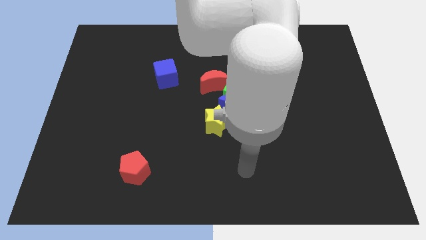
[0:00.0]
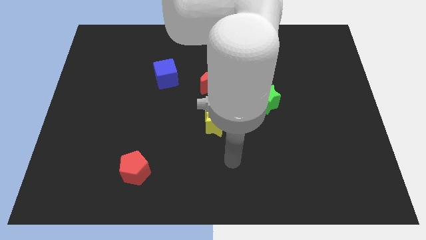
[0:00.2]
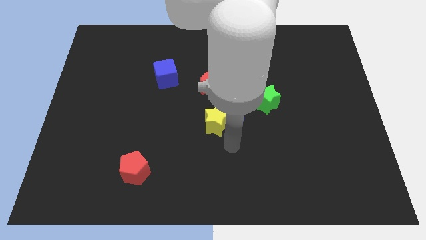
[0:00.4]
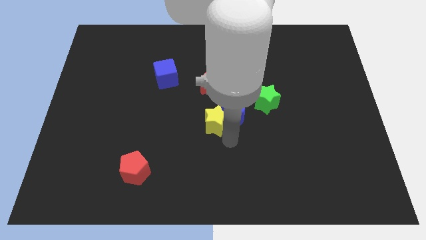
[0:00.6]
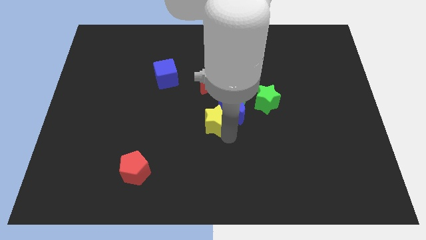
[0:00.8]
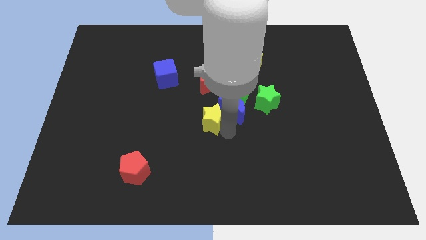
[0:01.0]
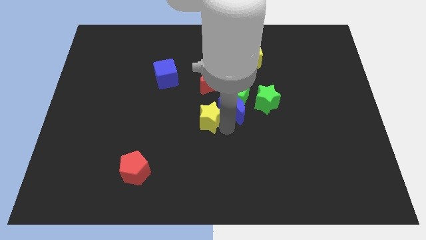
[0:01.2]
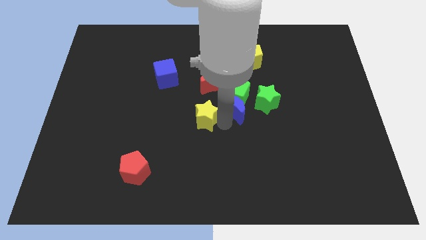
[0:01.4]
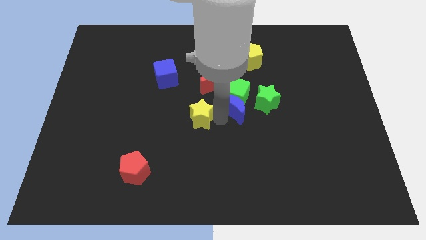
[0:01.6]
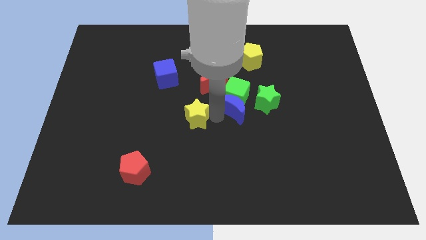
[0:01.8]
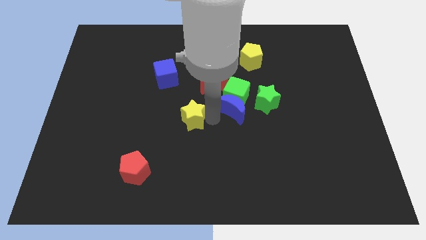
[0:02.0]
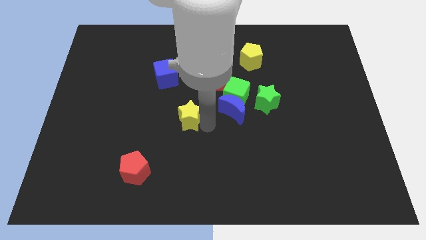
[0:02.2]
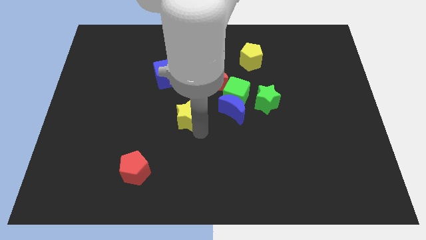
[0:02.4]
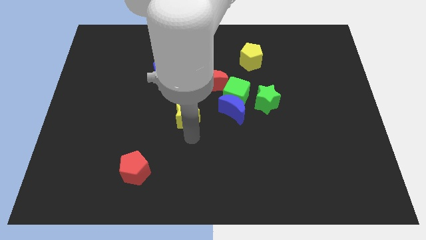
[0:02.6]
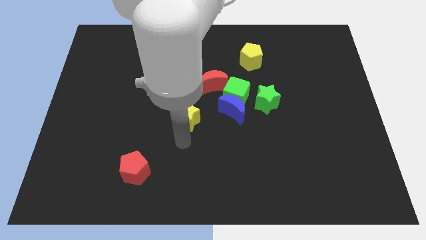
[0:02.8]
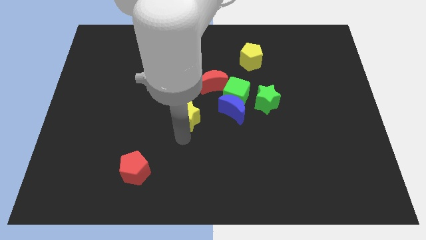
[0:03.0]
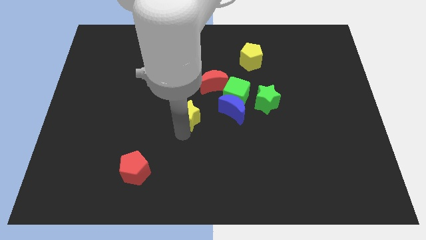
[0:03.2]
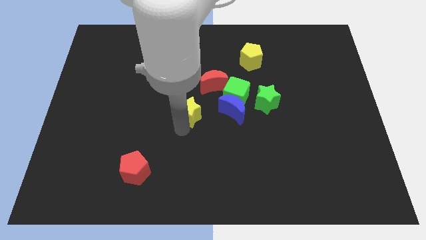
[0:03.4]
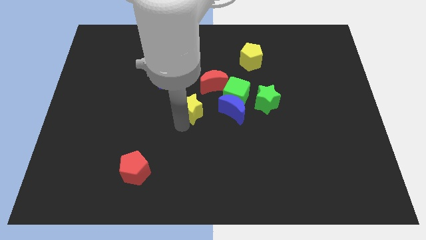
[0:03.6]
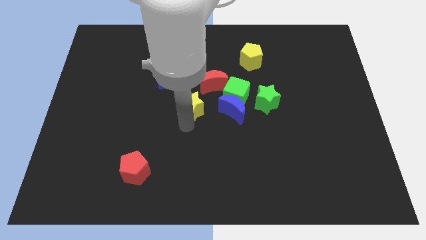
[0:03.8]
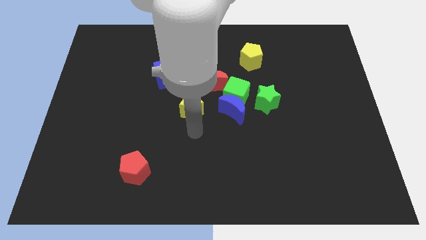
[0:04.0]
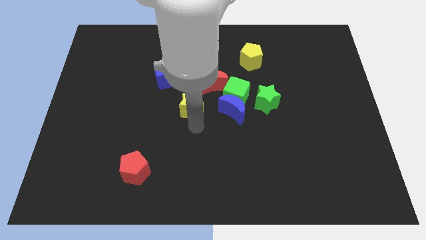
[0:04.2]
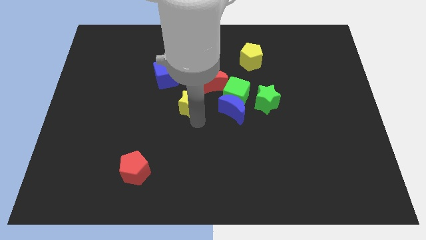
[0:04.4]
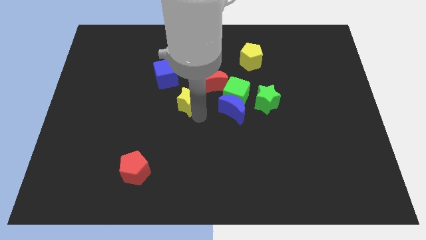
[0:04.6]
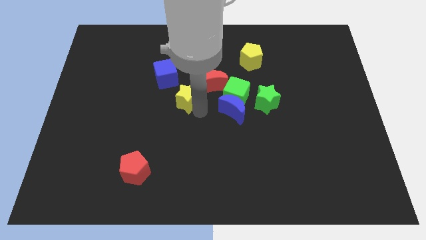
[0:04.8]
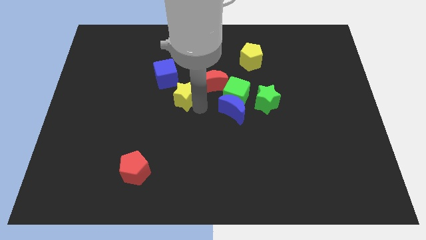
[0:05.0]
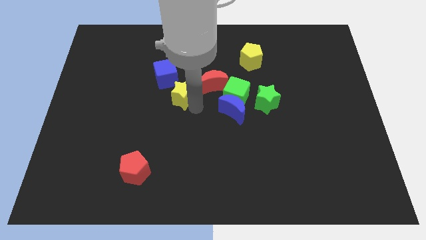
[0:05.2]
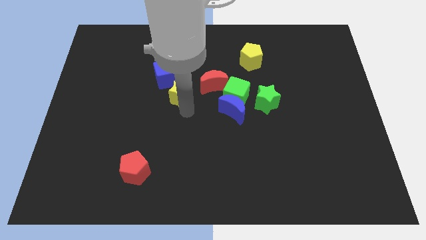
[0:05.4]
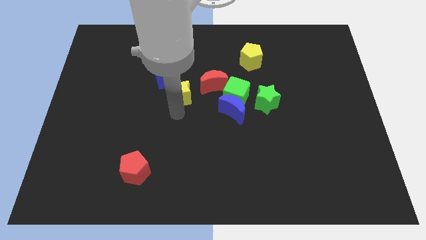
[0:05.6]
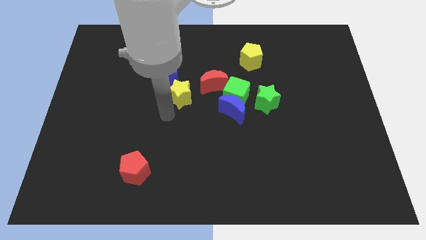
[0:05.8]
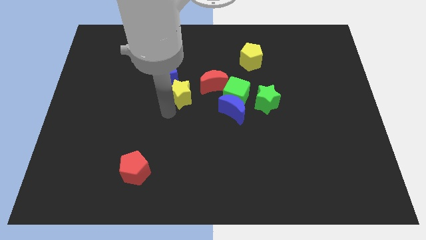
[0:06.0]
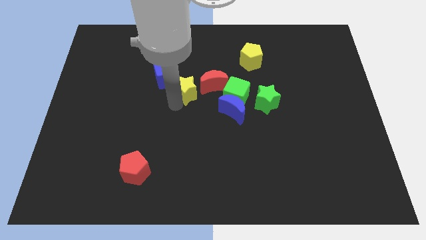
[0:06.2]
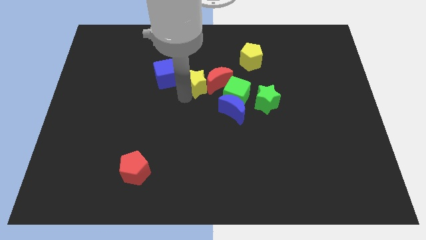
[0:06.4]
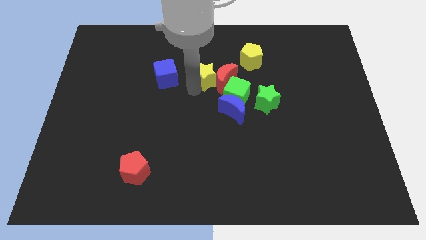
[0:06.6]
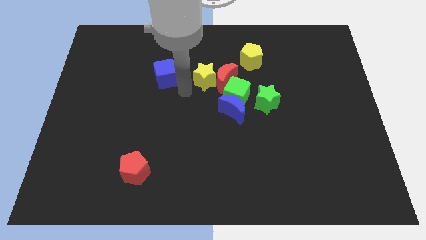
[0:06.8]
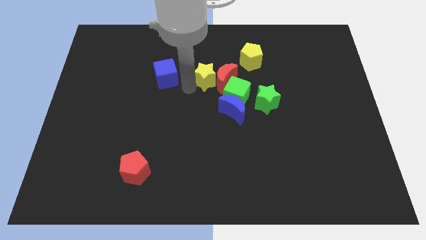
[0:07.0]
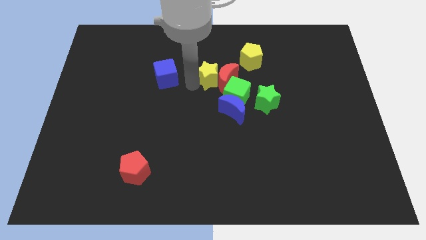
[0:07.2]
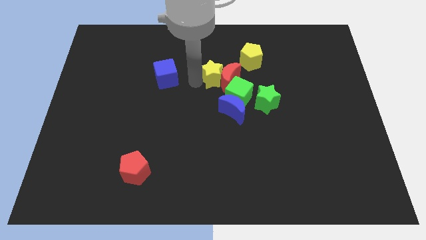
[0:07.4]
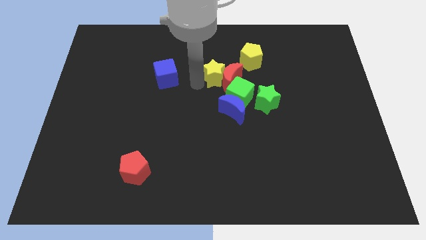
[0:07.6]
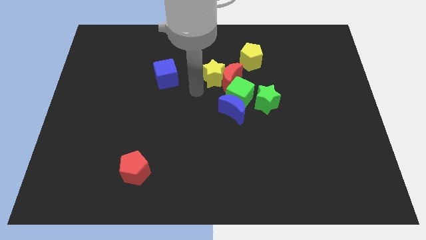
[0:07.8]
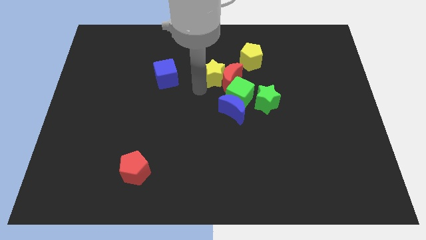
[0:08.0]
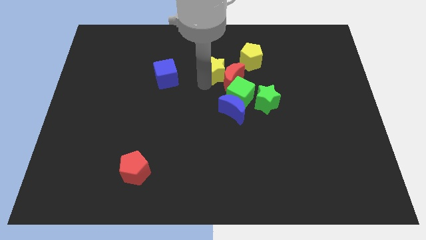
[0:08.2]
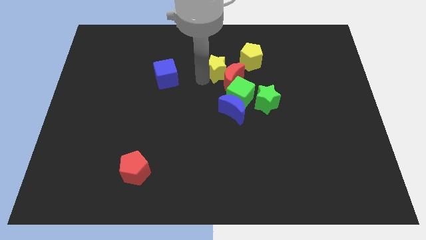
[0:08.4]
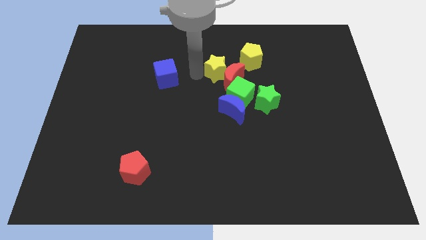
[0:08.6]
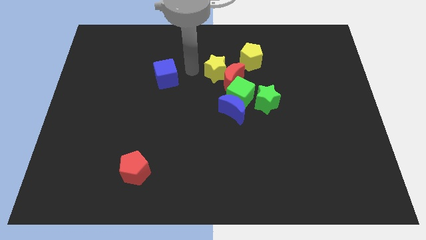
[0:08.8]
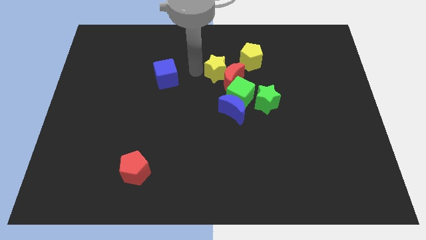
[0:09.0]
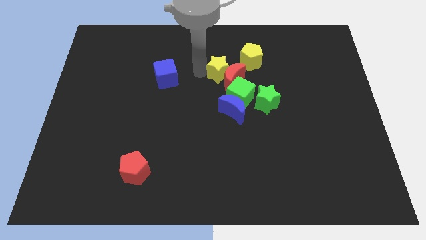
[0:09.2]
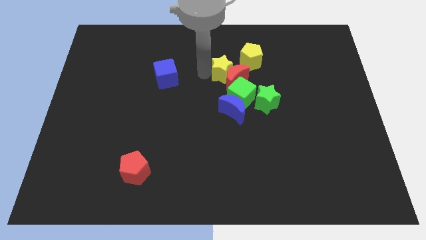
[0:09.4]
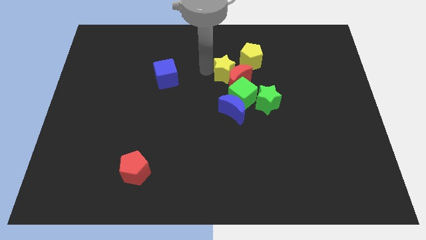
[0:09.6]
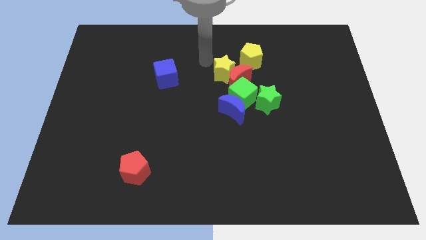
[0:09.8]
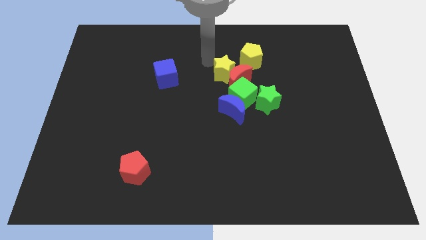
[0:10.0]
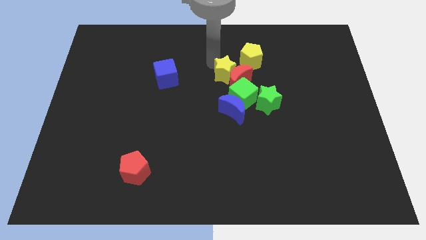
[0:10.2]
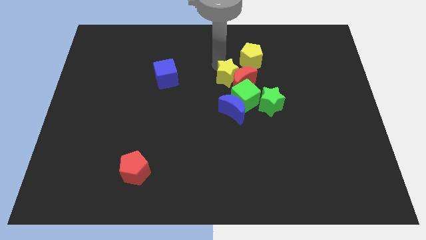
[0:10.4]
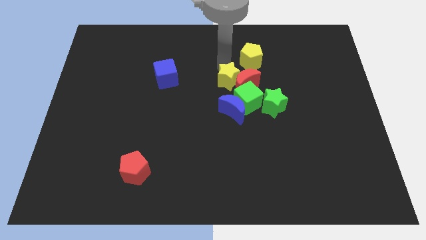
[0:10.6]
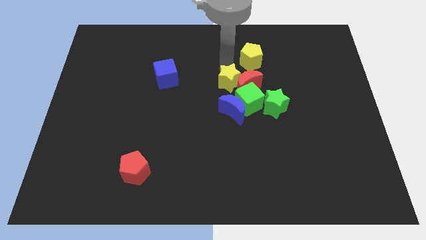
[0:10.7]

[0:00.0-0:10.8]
put the yellow star to the top left side of the green star

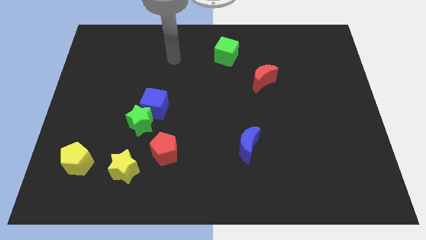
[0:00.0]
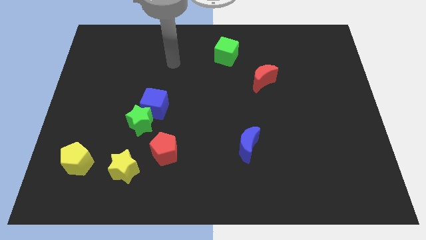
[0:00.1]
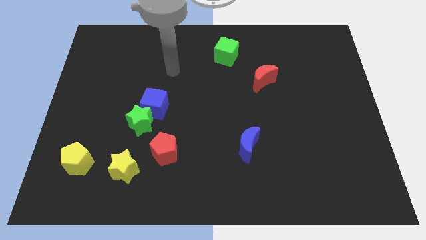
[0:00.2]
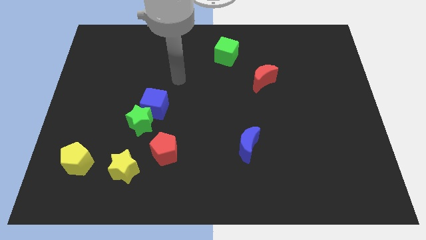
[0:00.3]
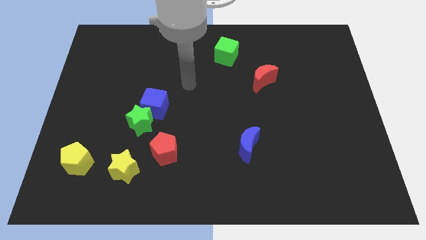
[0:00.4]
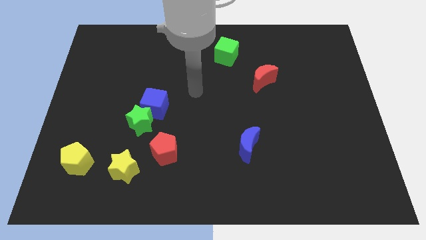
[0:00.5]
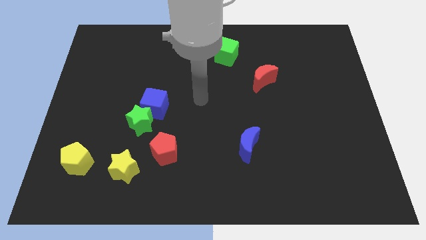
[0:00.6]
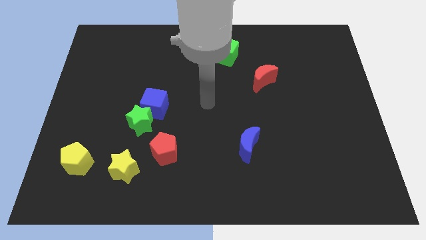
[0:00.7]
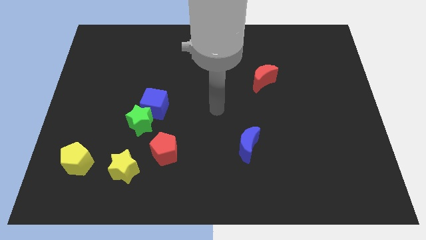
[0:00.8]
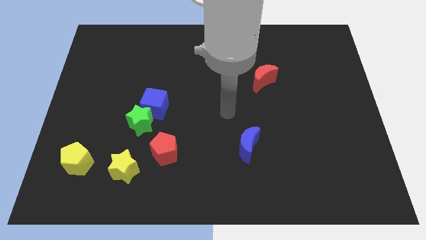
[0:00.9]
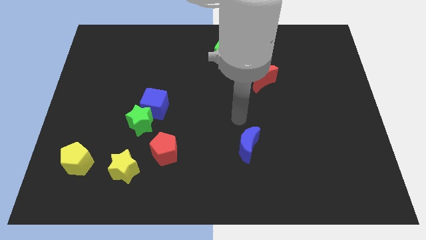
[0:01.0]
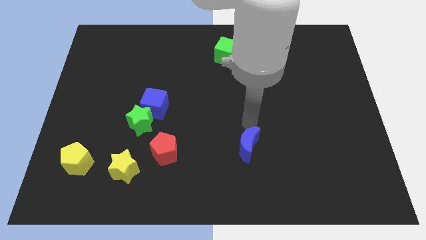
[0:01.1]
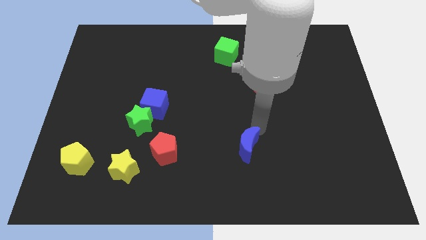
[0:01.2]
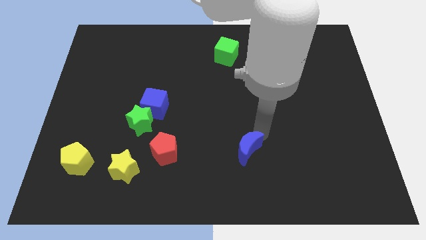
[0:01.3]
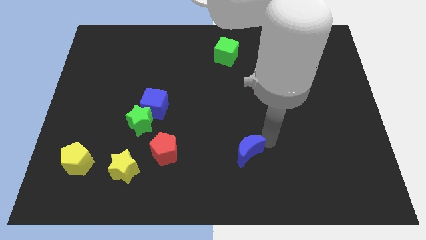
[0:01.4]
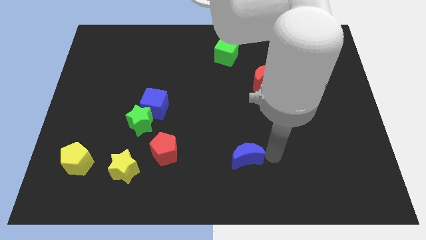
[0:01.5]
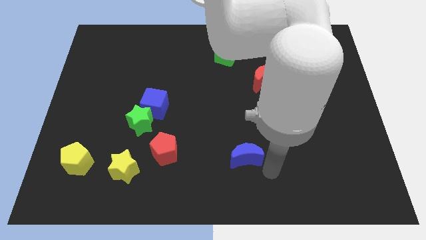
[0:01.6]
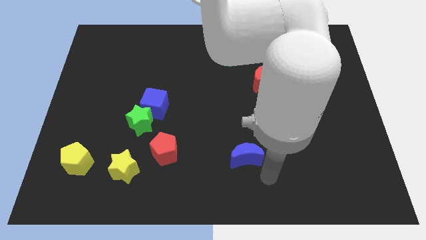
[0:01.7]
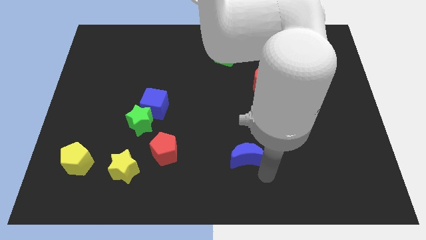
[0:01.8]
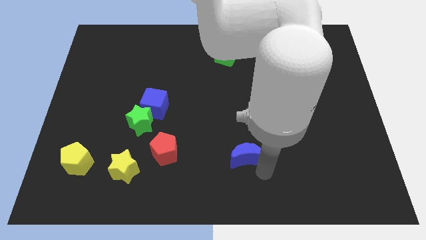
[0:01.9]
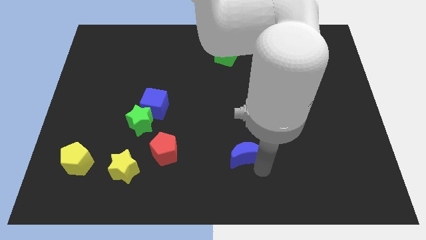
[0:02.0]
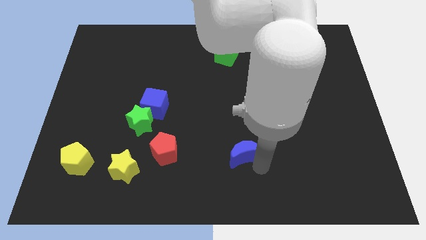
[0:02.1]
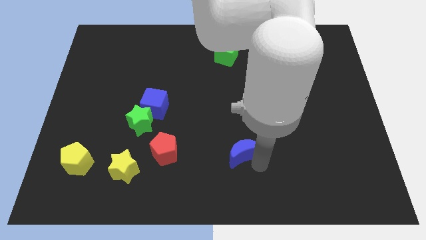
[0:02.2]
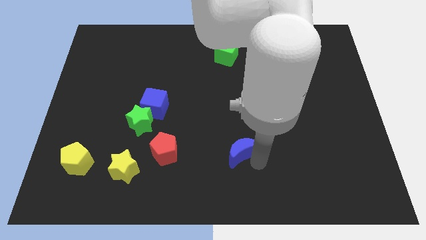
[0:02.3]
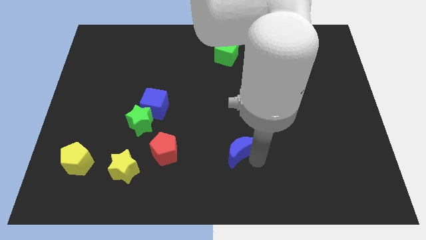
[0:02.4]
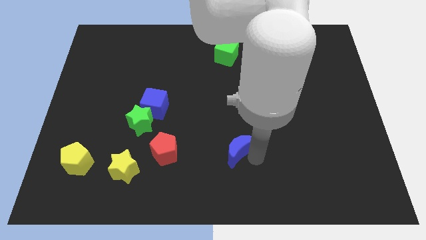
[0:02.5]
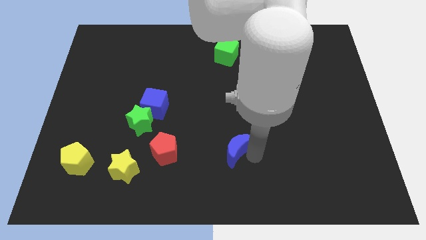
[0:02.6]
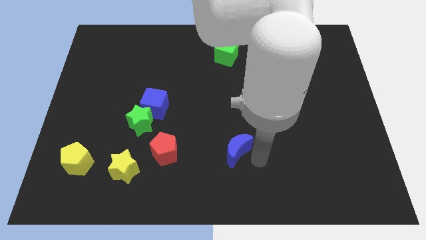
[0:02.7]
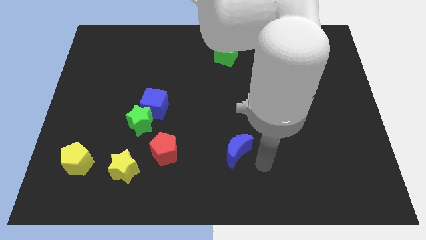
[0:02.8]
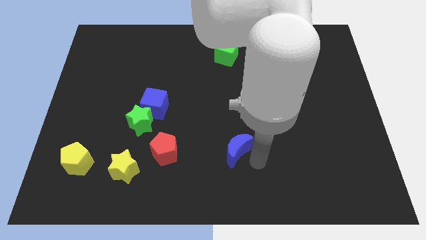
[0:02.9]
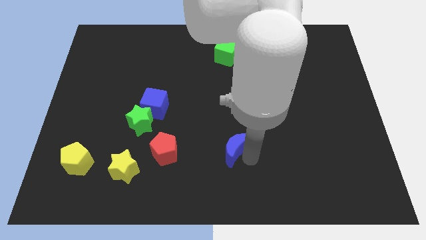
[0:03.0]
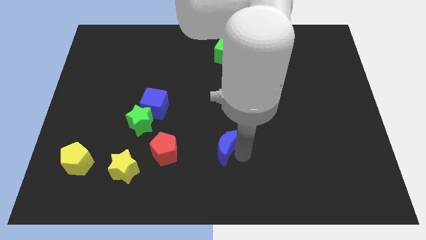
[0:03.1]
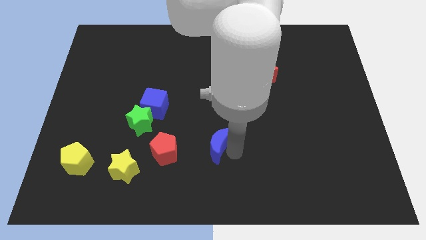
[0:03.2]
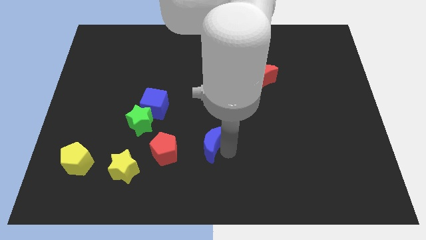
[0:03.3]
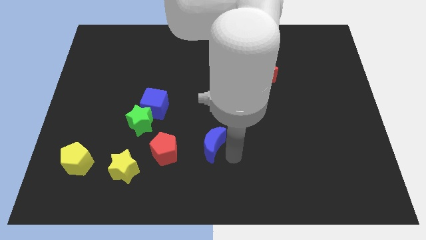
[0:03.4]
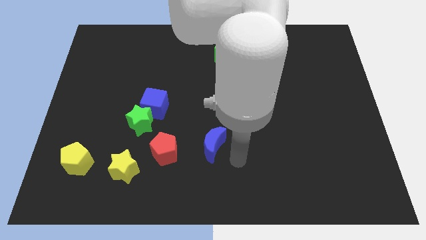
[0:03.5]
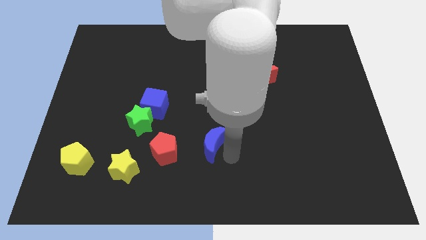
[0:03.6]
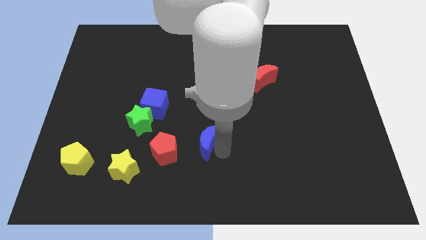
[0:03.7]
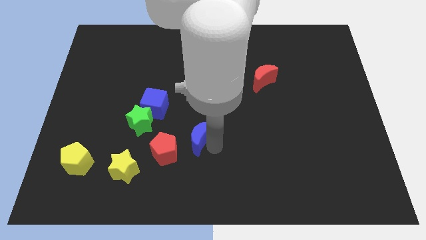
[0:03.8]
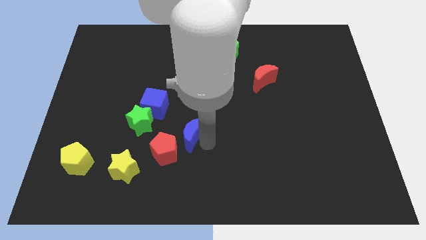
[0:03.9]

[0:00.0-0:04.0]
push the blue moon diagonally down and to the right of the blue cube
